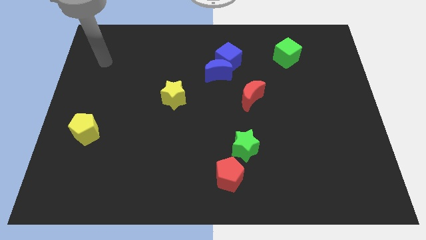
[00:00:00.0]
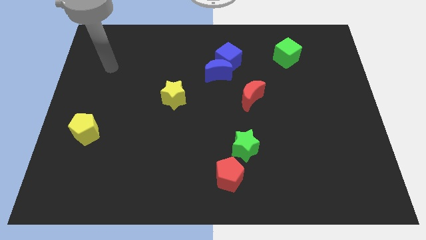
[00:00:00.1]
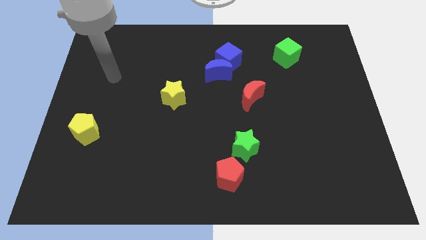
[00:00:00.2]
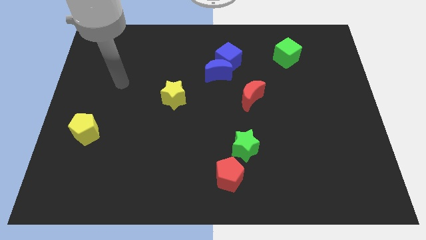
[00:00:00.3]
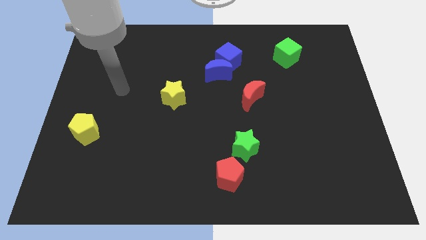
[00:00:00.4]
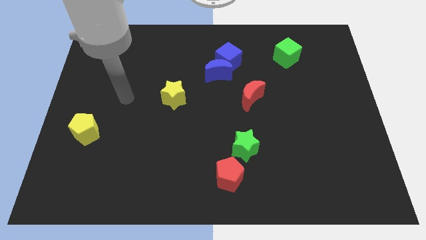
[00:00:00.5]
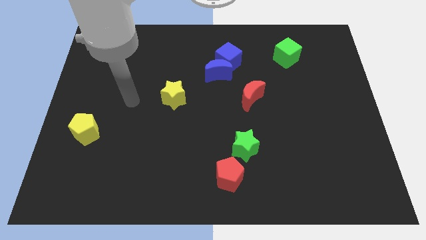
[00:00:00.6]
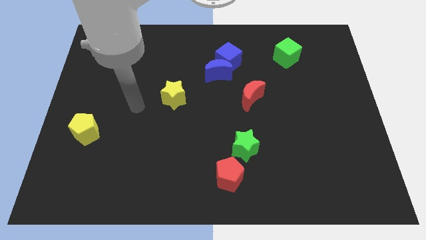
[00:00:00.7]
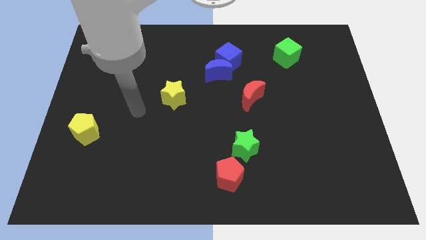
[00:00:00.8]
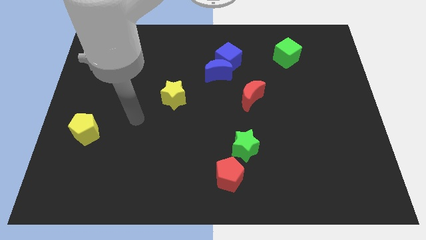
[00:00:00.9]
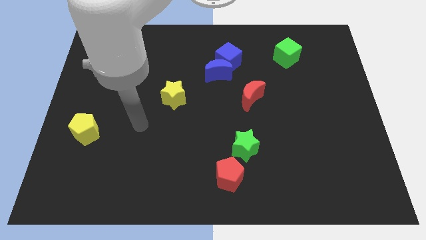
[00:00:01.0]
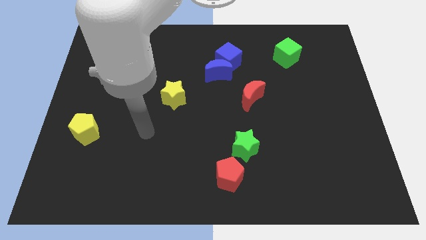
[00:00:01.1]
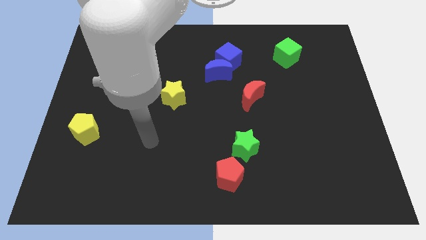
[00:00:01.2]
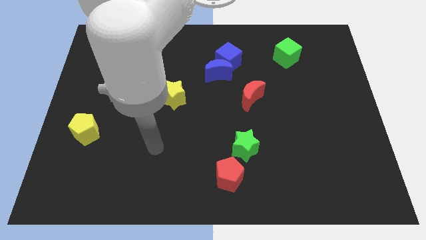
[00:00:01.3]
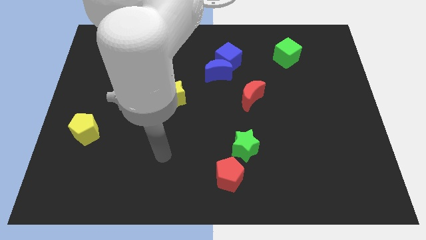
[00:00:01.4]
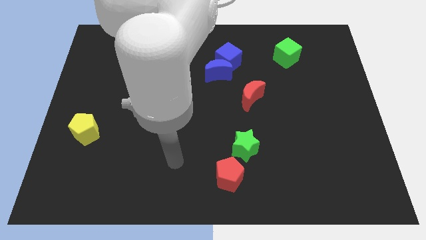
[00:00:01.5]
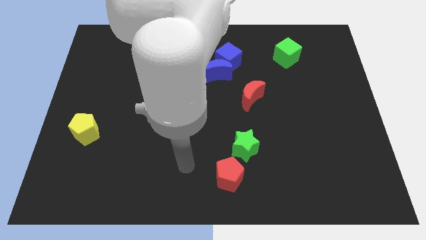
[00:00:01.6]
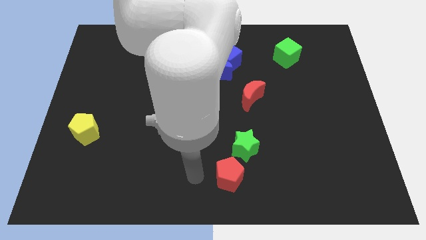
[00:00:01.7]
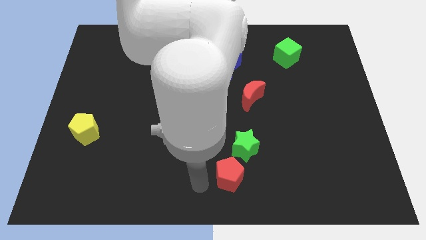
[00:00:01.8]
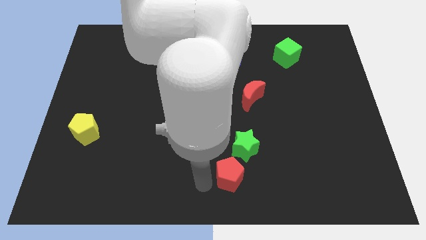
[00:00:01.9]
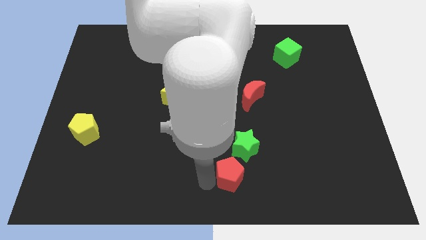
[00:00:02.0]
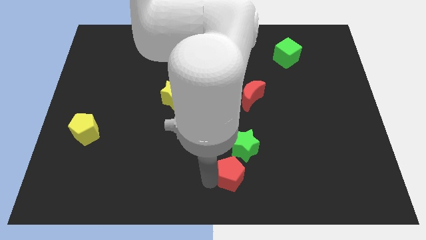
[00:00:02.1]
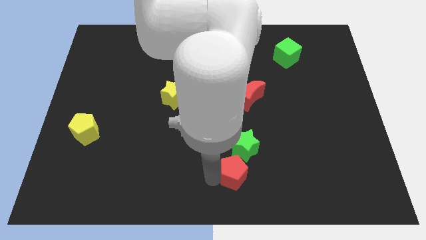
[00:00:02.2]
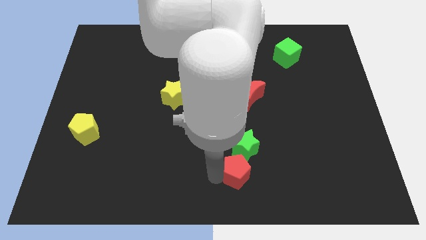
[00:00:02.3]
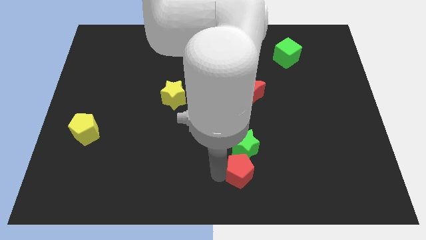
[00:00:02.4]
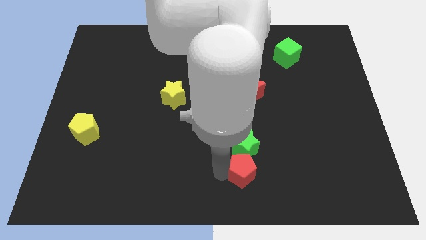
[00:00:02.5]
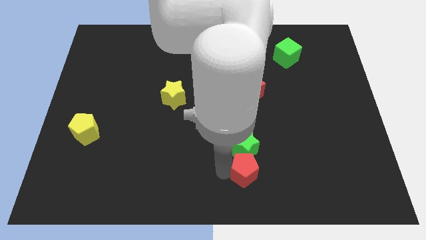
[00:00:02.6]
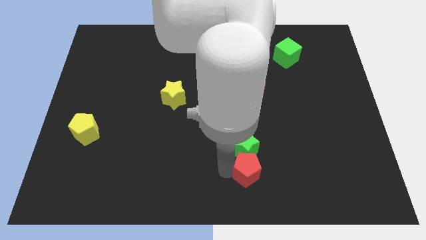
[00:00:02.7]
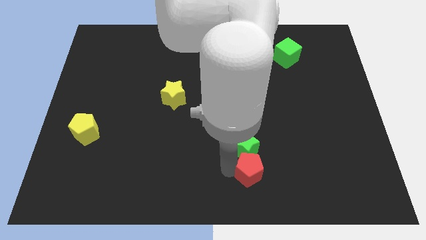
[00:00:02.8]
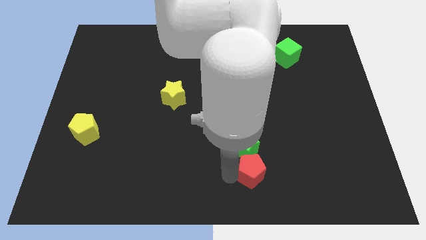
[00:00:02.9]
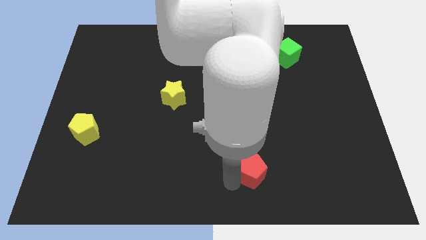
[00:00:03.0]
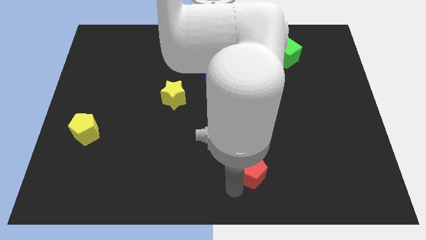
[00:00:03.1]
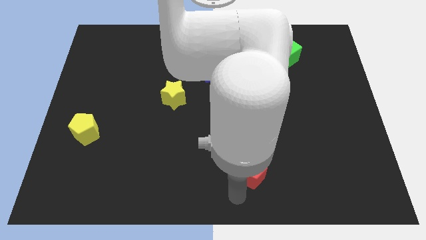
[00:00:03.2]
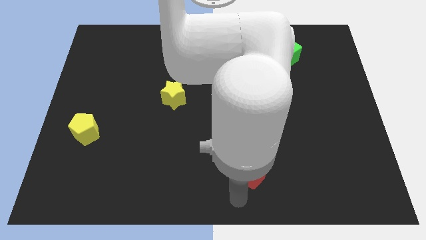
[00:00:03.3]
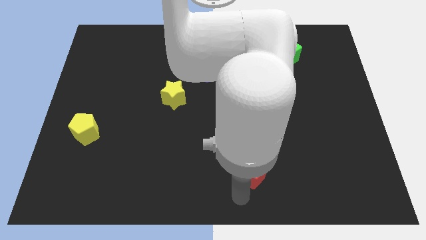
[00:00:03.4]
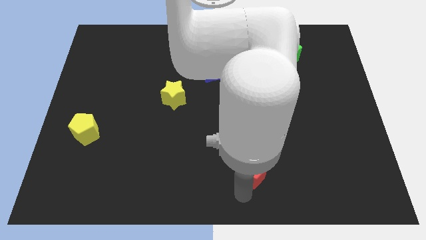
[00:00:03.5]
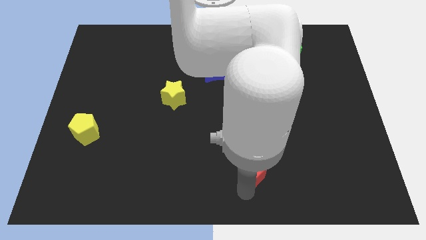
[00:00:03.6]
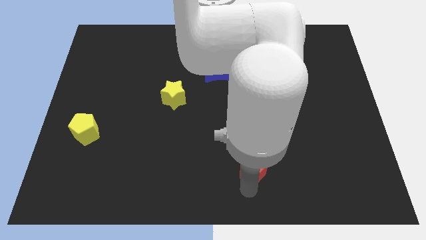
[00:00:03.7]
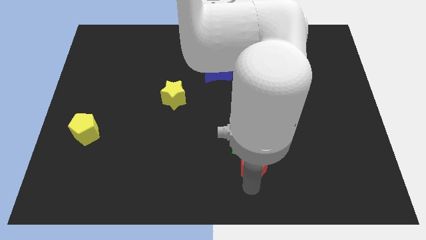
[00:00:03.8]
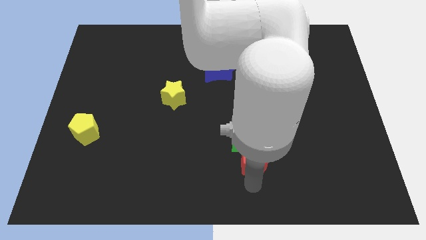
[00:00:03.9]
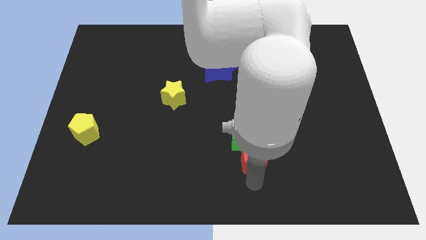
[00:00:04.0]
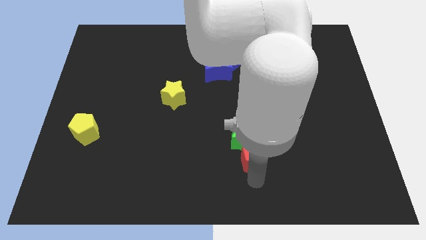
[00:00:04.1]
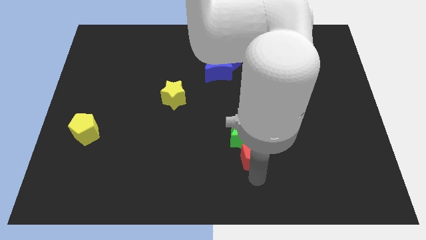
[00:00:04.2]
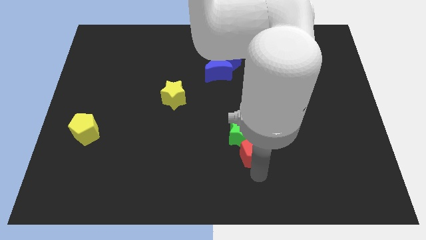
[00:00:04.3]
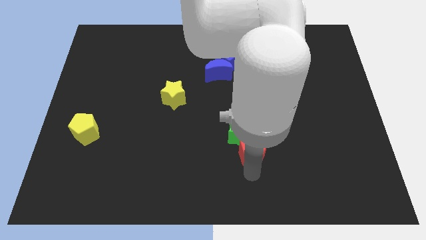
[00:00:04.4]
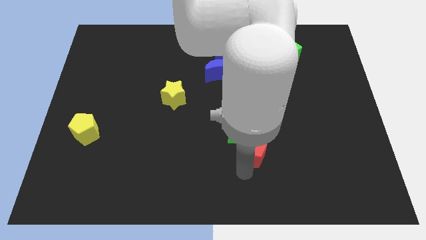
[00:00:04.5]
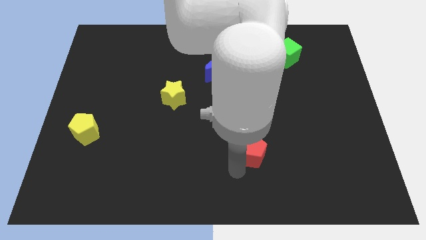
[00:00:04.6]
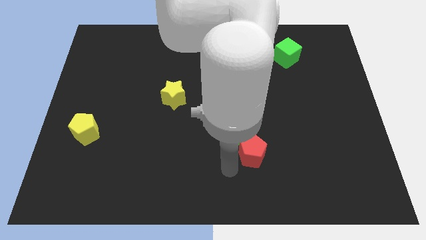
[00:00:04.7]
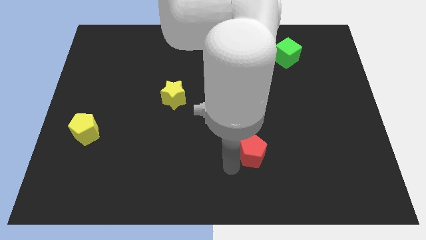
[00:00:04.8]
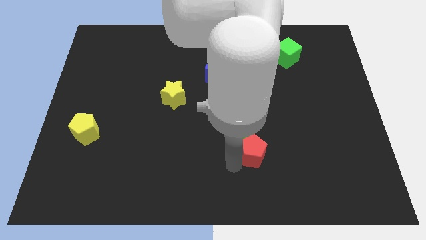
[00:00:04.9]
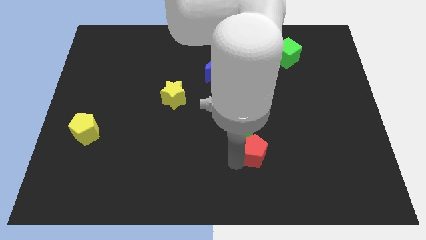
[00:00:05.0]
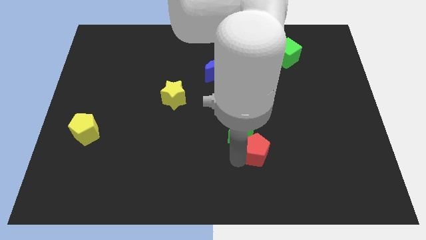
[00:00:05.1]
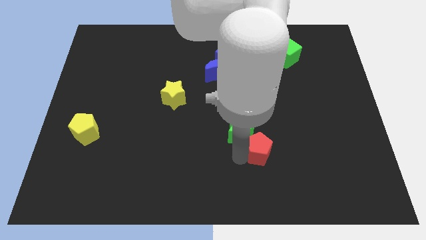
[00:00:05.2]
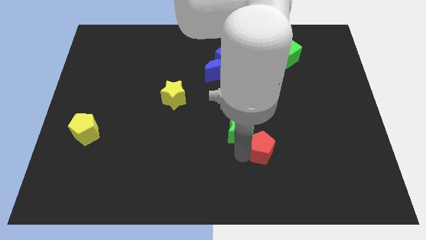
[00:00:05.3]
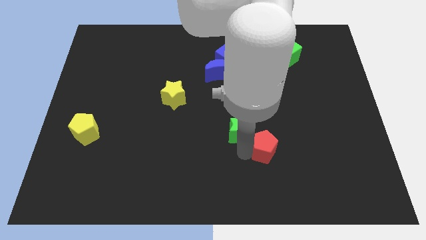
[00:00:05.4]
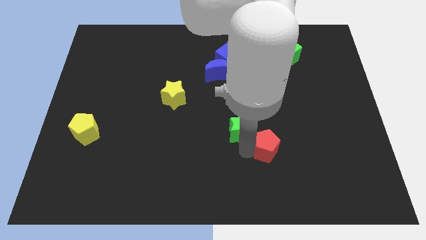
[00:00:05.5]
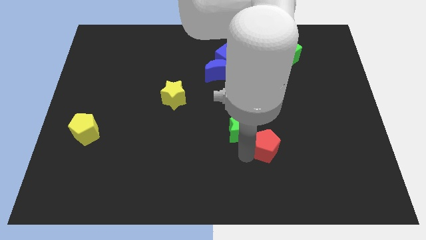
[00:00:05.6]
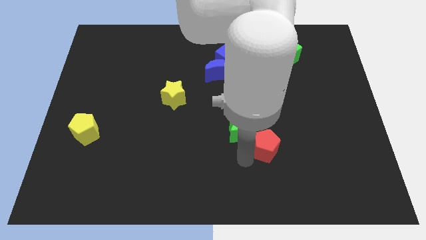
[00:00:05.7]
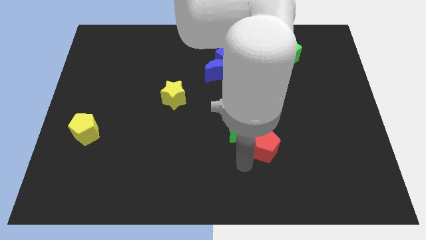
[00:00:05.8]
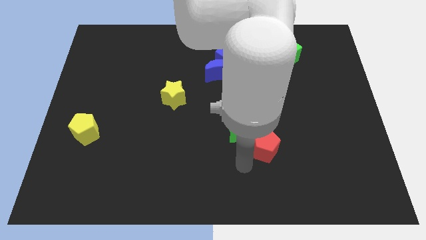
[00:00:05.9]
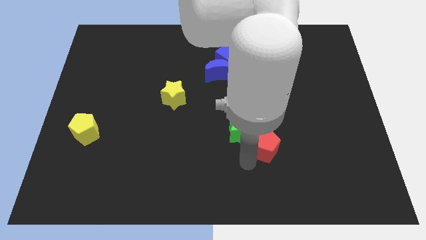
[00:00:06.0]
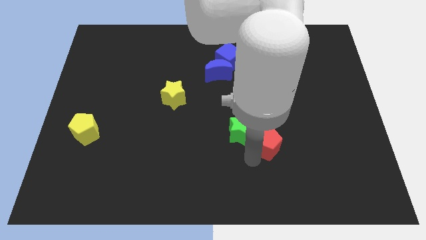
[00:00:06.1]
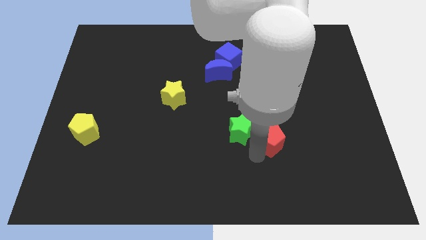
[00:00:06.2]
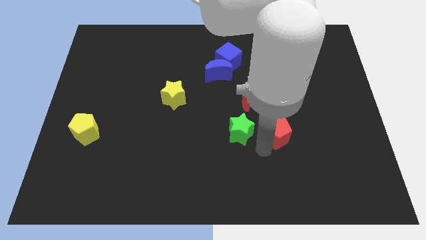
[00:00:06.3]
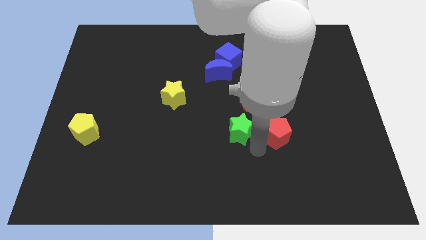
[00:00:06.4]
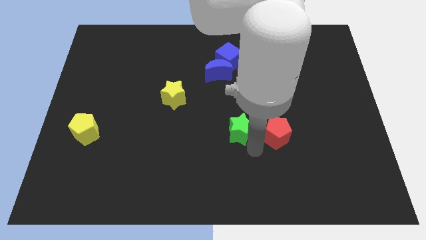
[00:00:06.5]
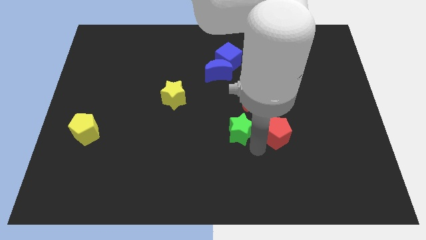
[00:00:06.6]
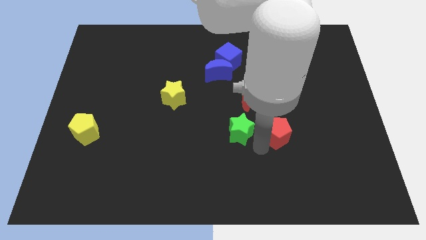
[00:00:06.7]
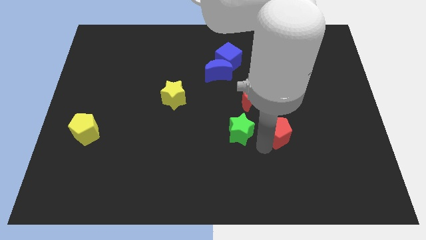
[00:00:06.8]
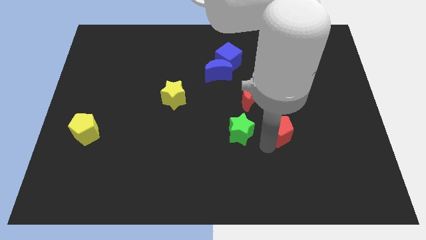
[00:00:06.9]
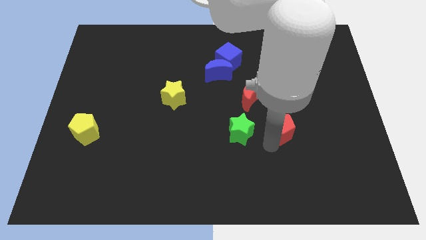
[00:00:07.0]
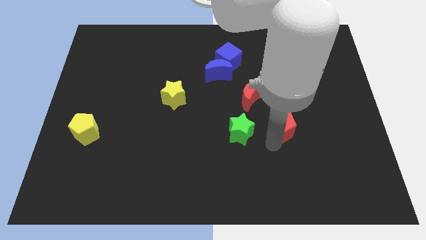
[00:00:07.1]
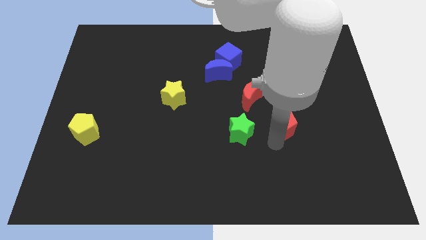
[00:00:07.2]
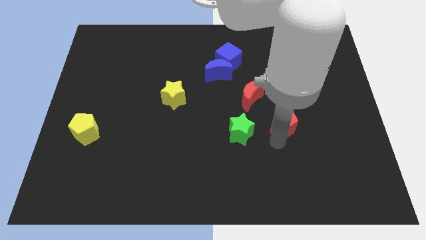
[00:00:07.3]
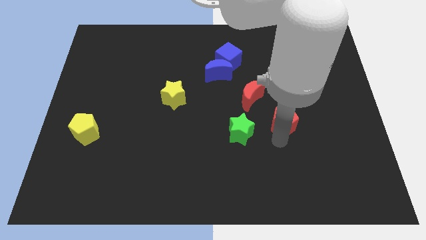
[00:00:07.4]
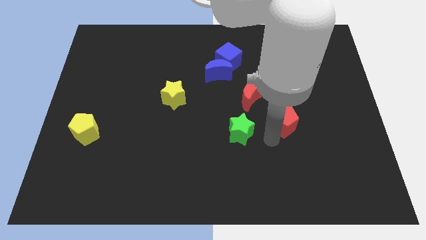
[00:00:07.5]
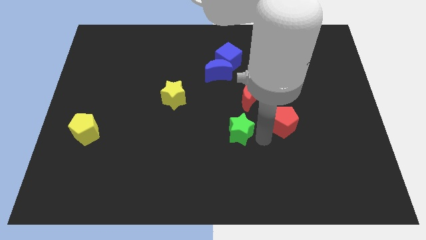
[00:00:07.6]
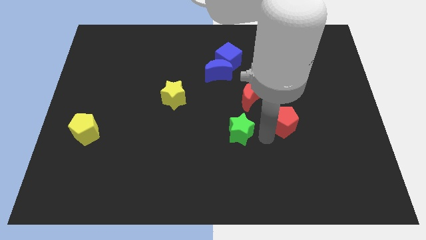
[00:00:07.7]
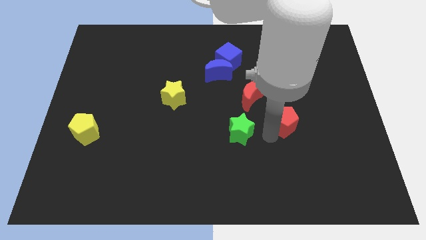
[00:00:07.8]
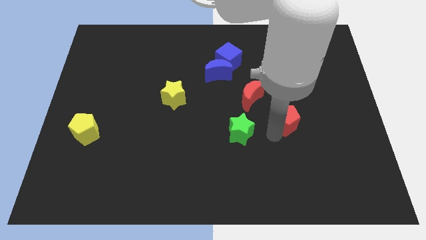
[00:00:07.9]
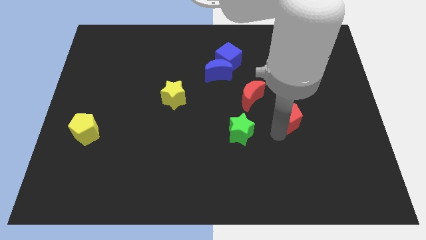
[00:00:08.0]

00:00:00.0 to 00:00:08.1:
push the red pentagon upwards and then to the right
